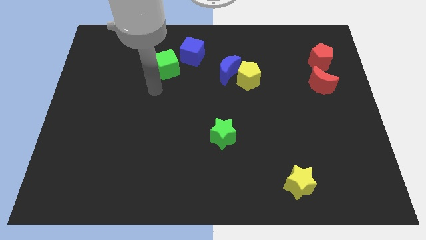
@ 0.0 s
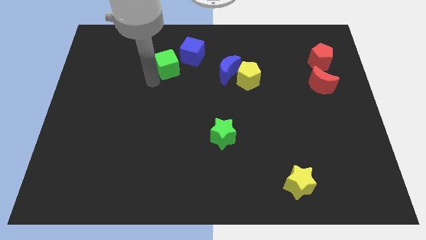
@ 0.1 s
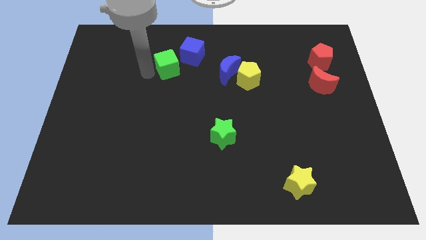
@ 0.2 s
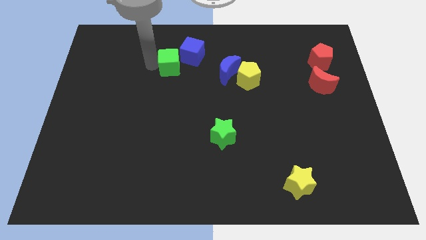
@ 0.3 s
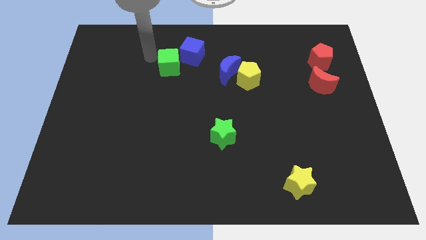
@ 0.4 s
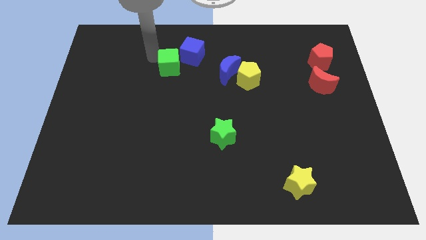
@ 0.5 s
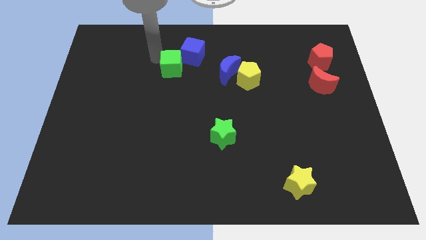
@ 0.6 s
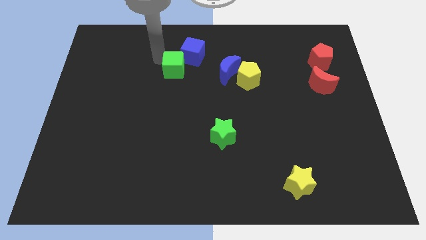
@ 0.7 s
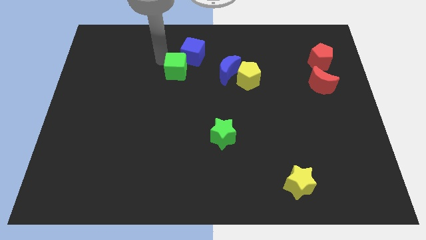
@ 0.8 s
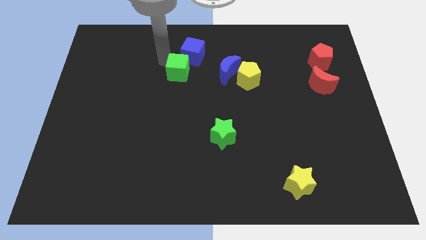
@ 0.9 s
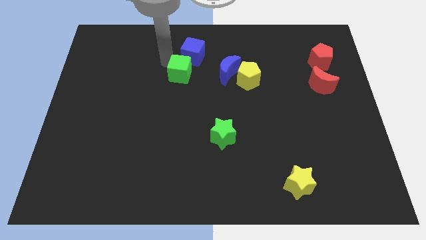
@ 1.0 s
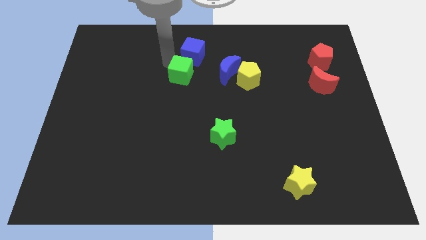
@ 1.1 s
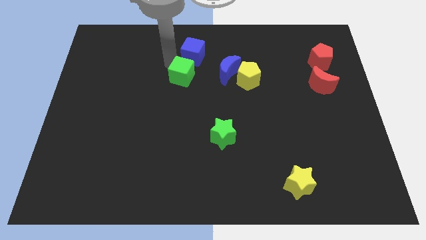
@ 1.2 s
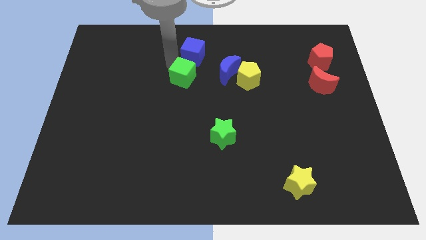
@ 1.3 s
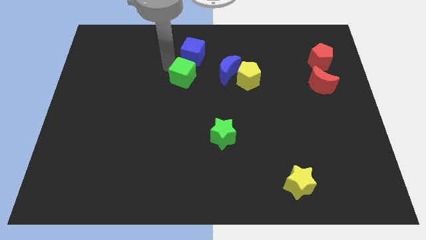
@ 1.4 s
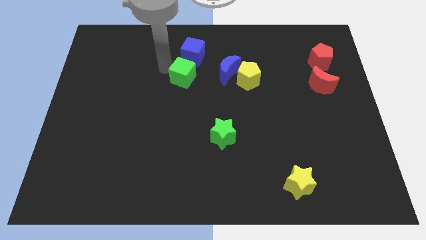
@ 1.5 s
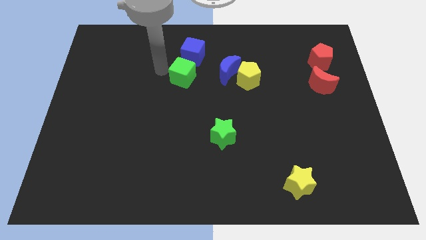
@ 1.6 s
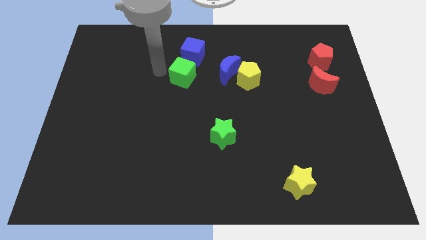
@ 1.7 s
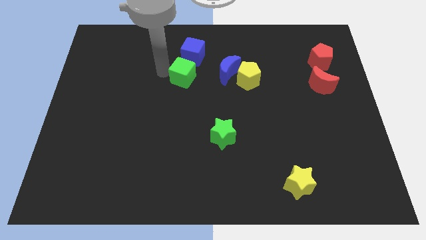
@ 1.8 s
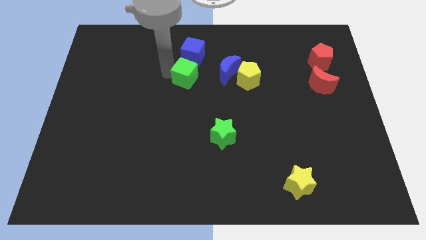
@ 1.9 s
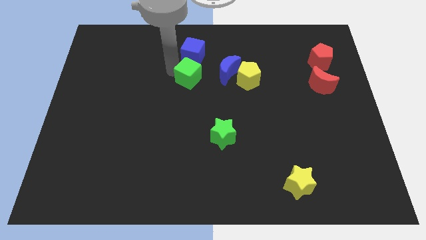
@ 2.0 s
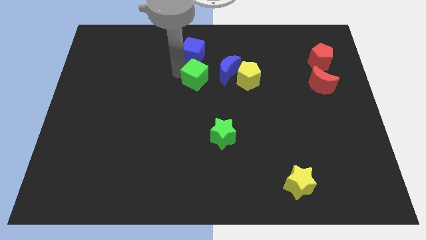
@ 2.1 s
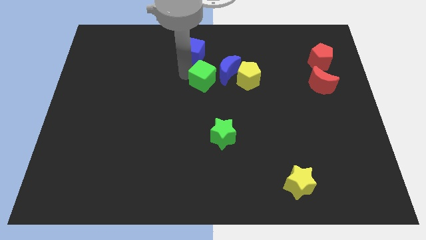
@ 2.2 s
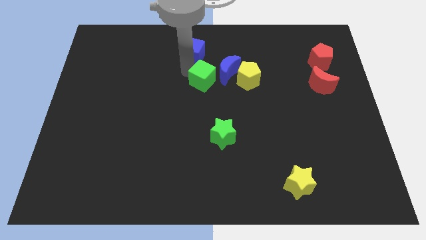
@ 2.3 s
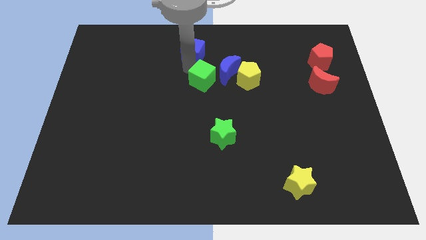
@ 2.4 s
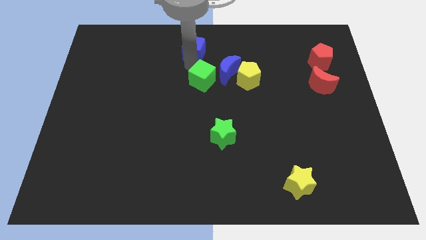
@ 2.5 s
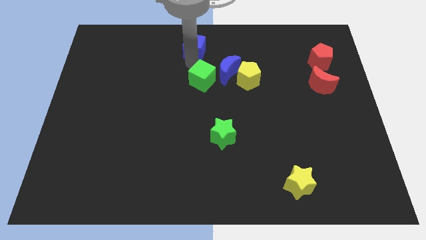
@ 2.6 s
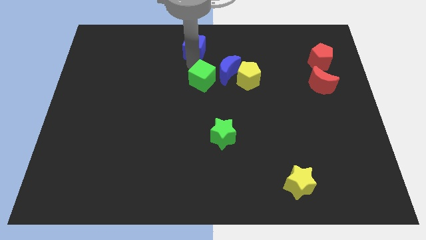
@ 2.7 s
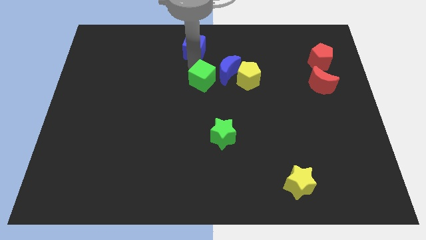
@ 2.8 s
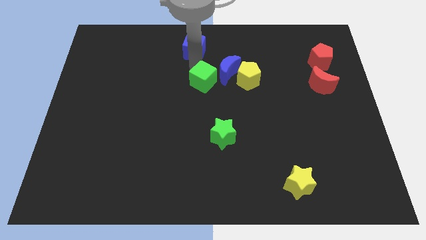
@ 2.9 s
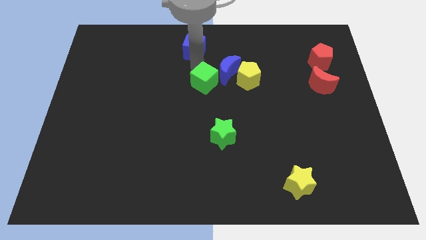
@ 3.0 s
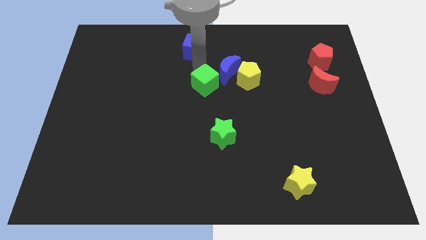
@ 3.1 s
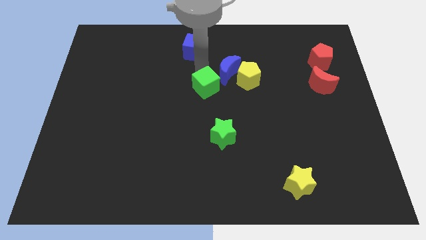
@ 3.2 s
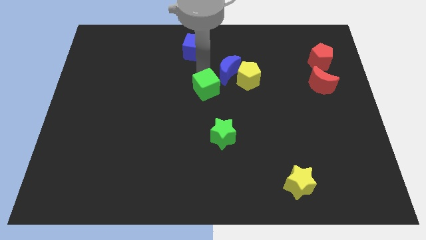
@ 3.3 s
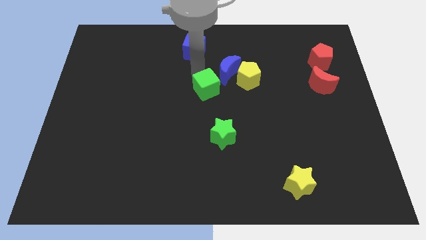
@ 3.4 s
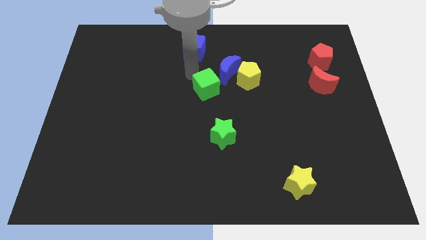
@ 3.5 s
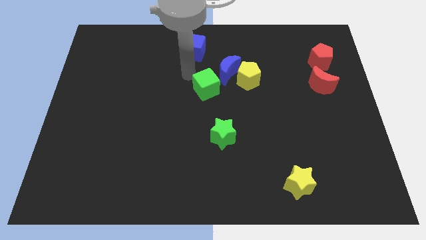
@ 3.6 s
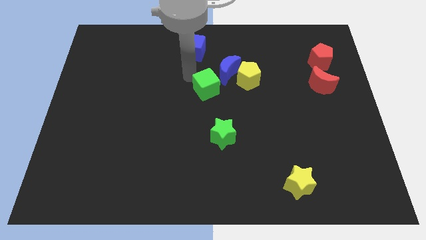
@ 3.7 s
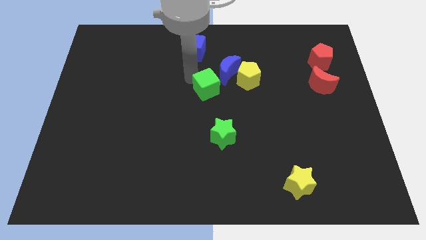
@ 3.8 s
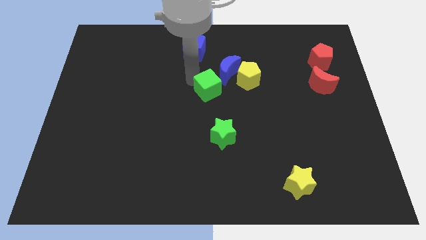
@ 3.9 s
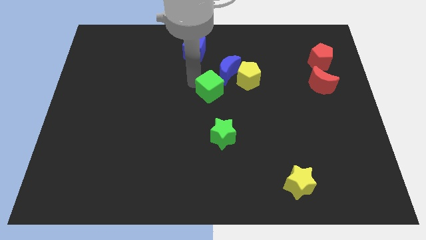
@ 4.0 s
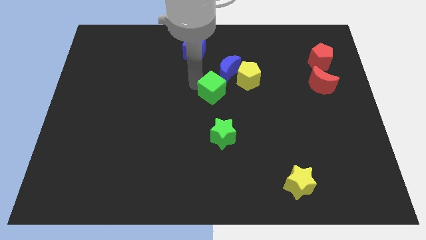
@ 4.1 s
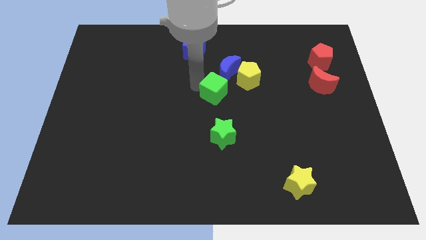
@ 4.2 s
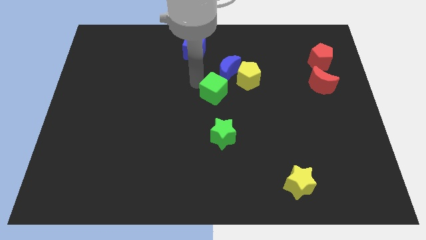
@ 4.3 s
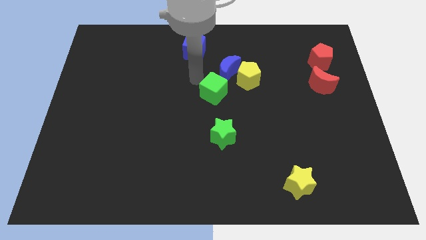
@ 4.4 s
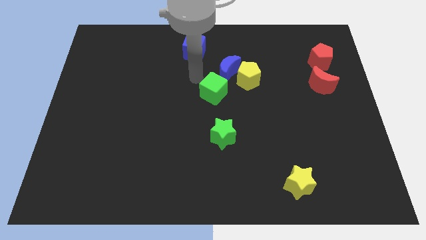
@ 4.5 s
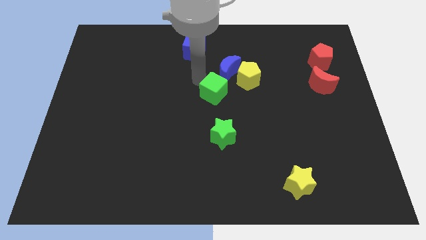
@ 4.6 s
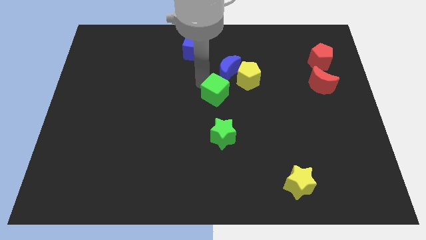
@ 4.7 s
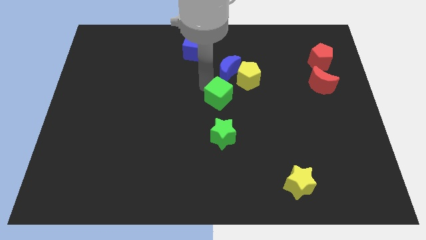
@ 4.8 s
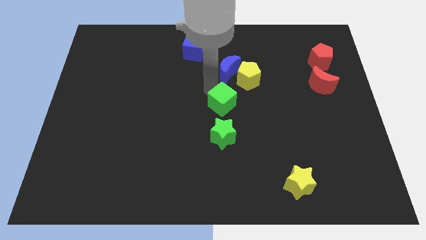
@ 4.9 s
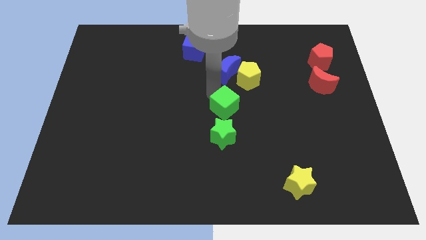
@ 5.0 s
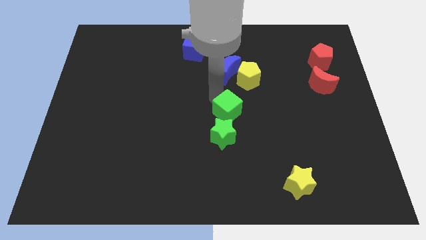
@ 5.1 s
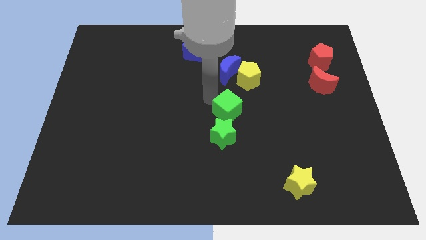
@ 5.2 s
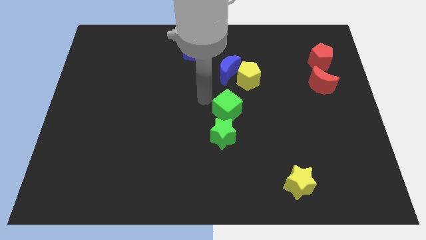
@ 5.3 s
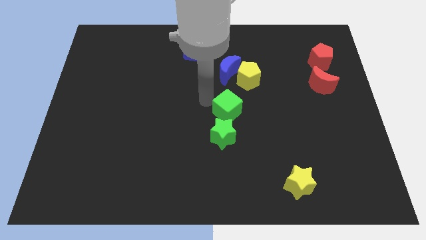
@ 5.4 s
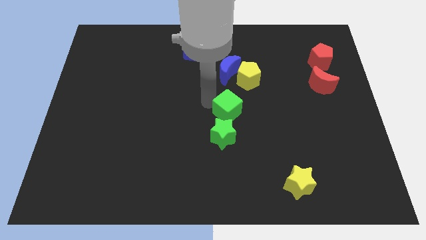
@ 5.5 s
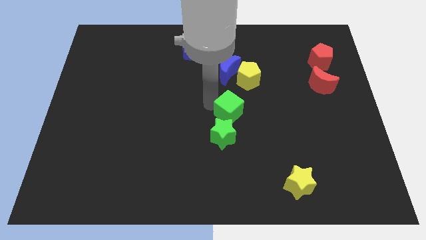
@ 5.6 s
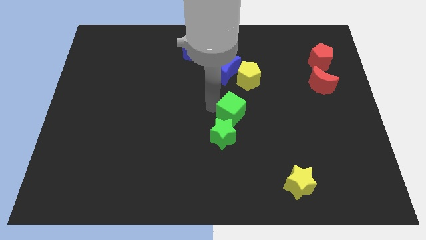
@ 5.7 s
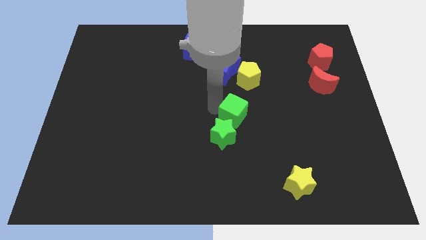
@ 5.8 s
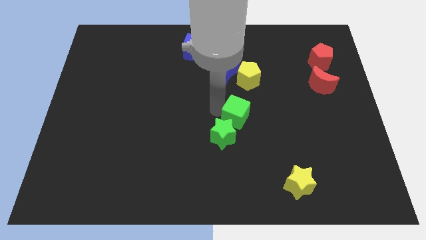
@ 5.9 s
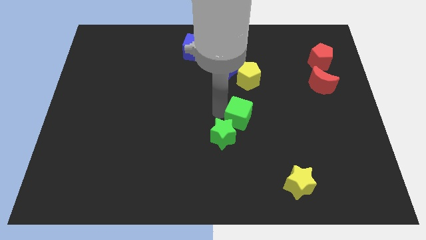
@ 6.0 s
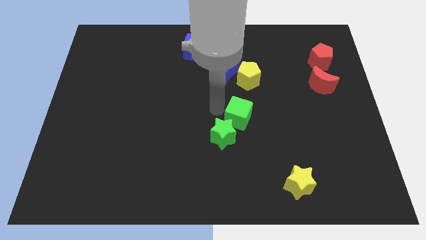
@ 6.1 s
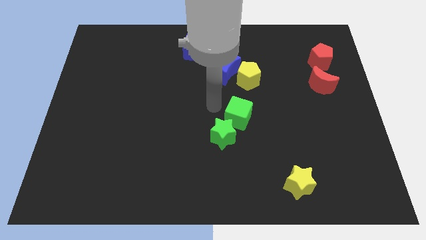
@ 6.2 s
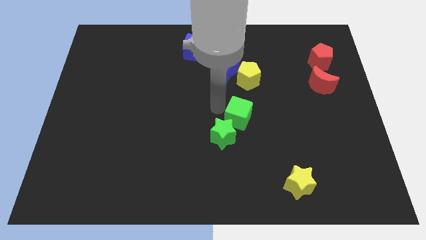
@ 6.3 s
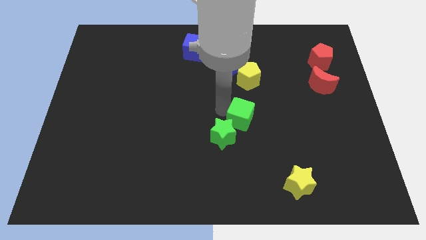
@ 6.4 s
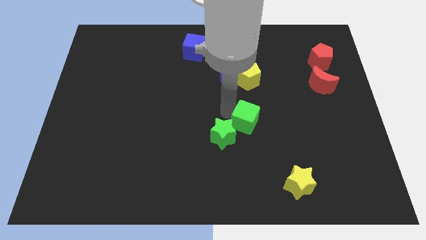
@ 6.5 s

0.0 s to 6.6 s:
push the green cube to the right side of the green star
